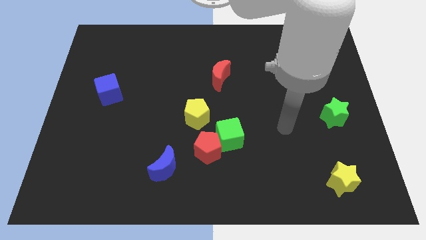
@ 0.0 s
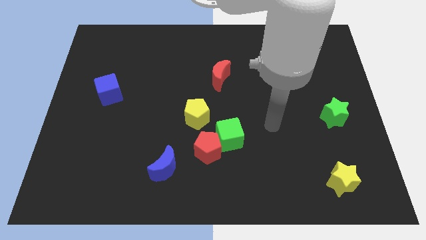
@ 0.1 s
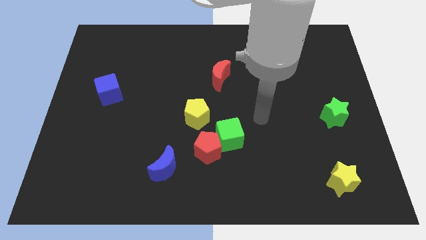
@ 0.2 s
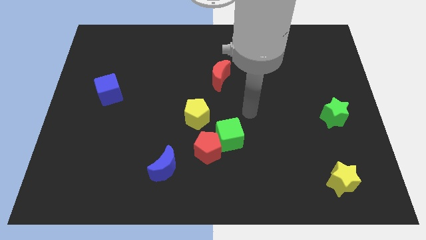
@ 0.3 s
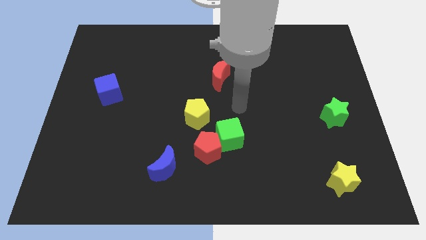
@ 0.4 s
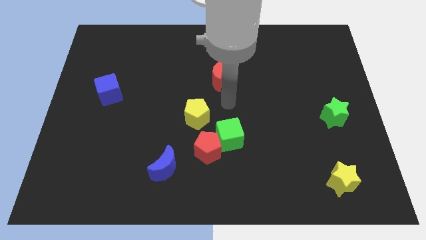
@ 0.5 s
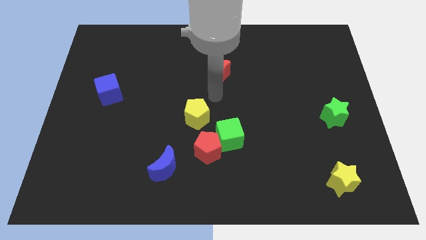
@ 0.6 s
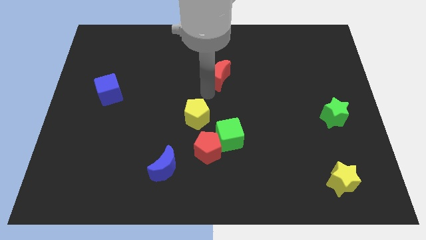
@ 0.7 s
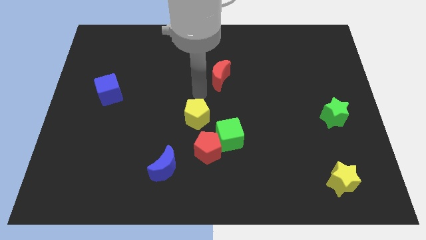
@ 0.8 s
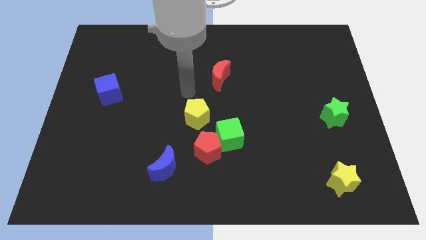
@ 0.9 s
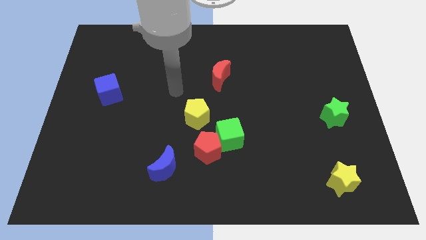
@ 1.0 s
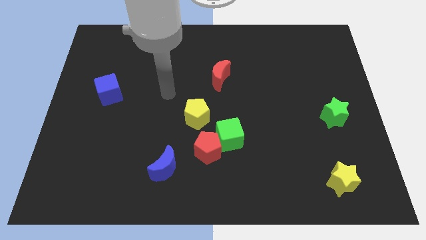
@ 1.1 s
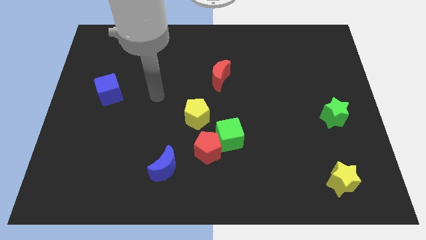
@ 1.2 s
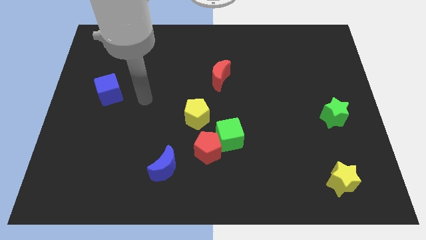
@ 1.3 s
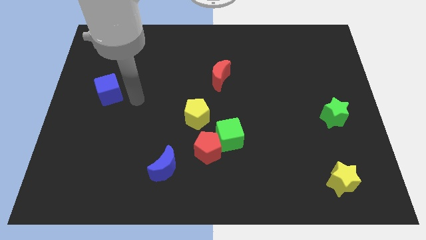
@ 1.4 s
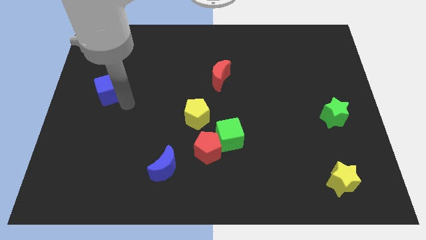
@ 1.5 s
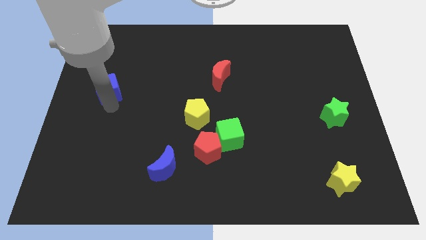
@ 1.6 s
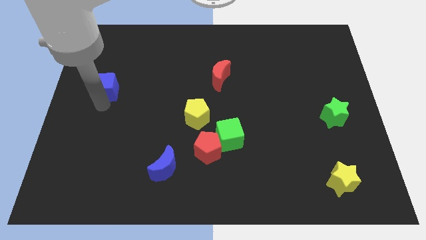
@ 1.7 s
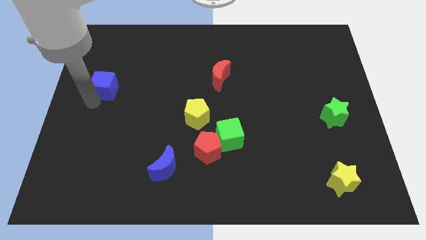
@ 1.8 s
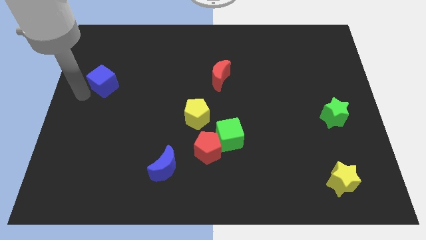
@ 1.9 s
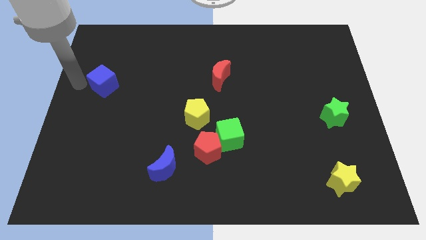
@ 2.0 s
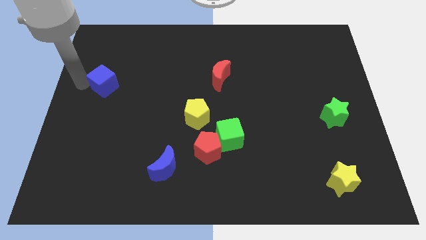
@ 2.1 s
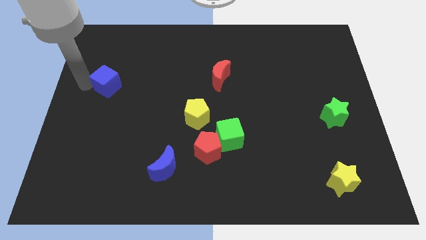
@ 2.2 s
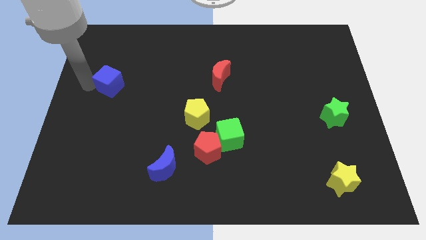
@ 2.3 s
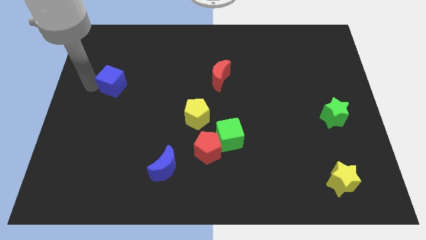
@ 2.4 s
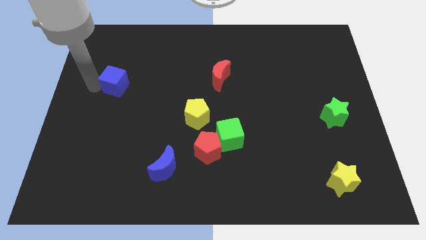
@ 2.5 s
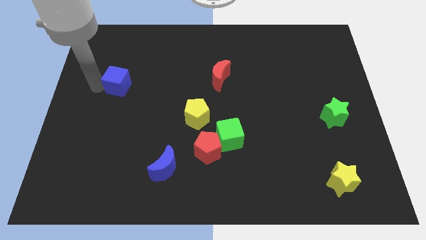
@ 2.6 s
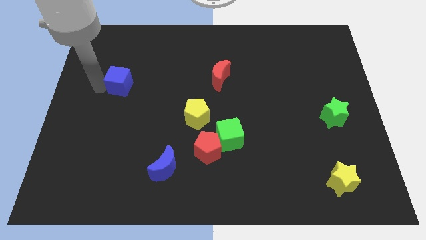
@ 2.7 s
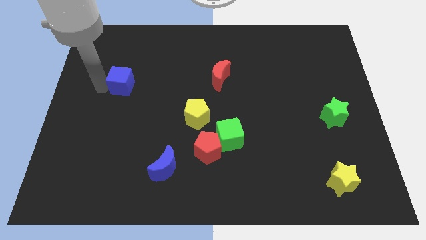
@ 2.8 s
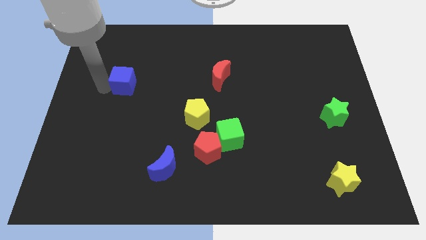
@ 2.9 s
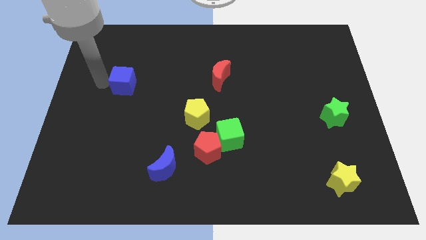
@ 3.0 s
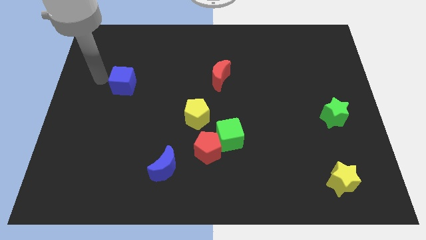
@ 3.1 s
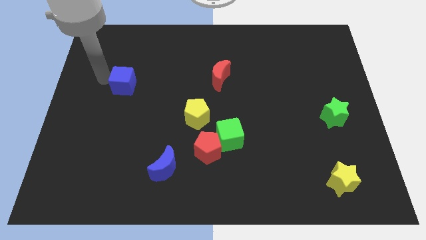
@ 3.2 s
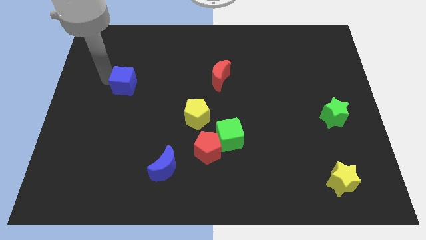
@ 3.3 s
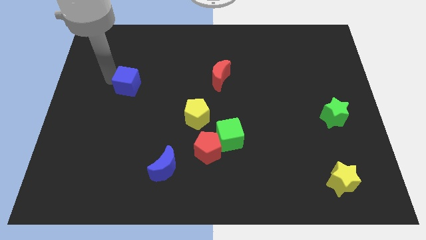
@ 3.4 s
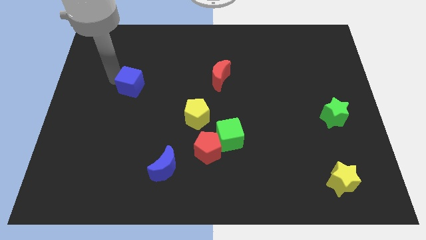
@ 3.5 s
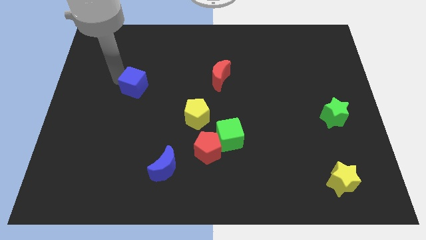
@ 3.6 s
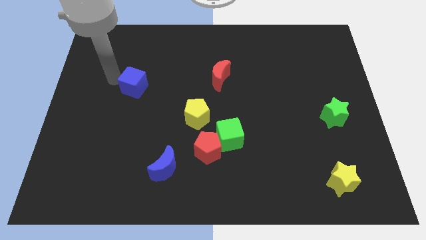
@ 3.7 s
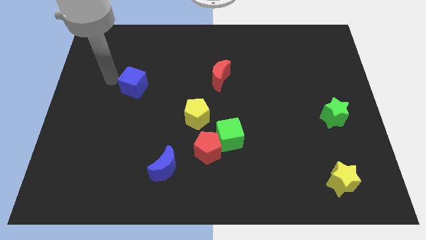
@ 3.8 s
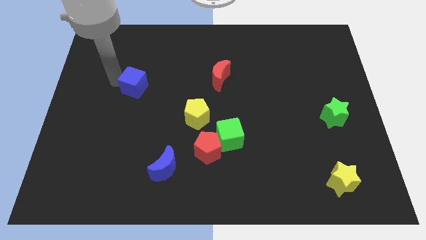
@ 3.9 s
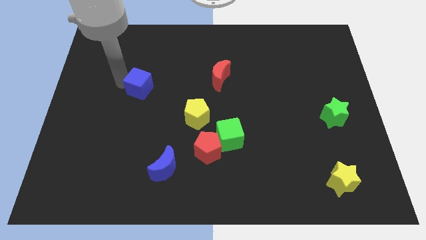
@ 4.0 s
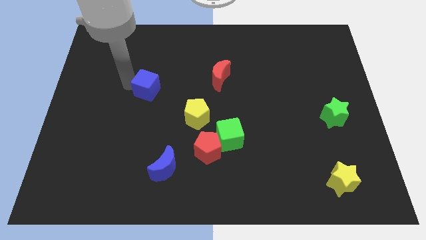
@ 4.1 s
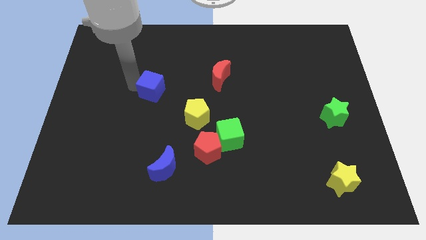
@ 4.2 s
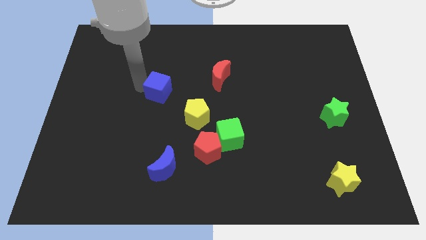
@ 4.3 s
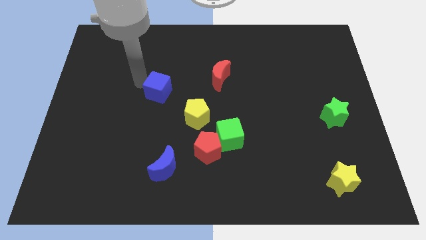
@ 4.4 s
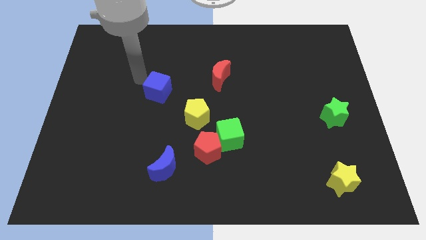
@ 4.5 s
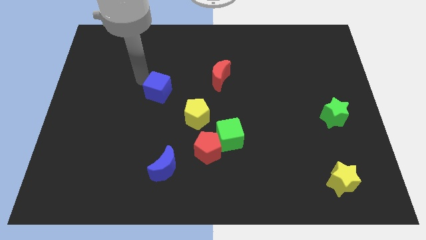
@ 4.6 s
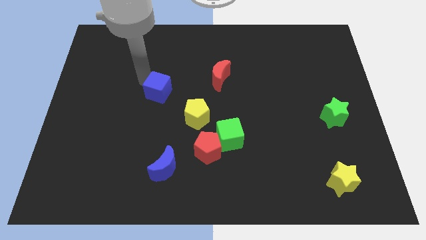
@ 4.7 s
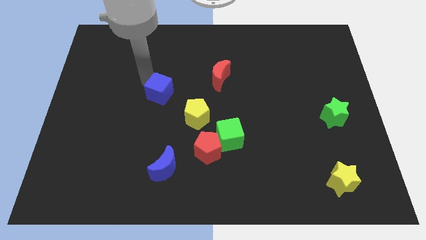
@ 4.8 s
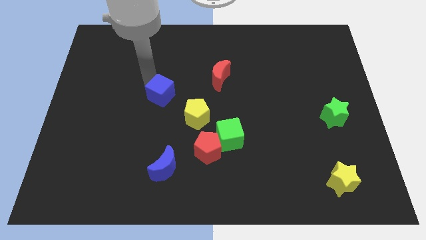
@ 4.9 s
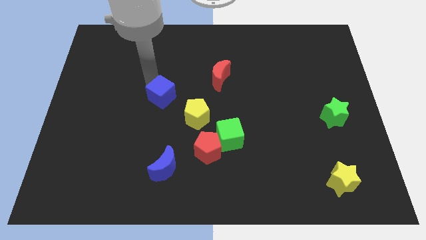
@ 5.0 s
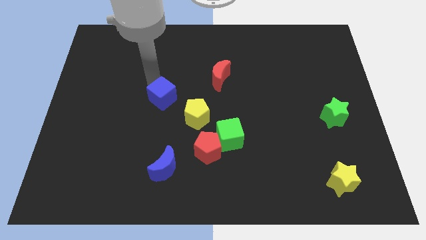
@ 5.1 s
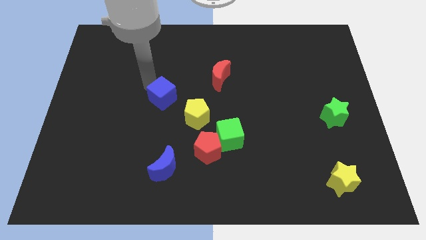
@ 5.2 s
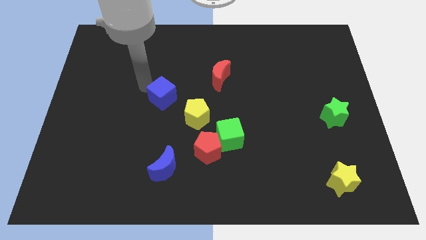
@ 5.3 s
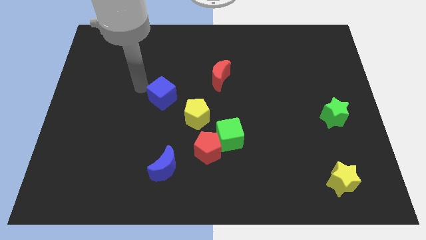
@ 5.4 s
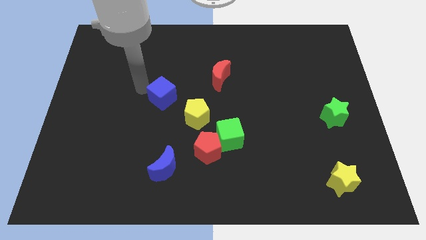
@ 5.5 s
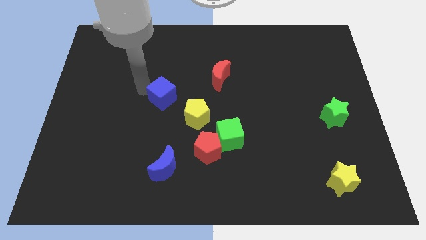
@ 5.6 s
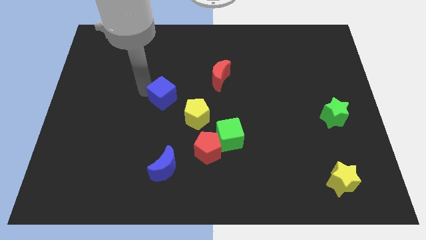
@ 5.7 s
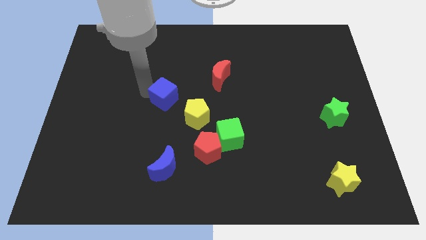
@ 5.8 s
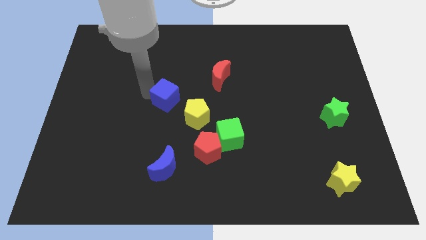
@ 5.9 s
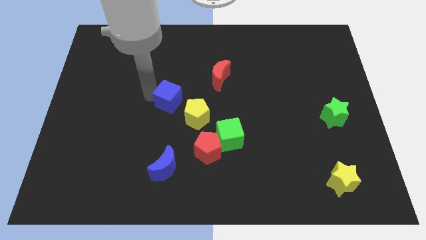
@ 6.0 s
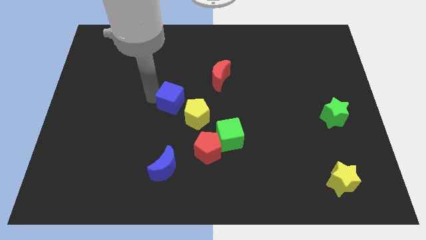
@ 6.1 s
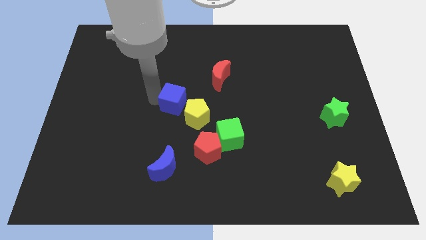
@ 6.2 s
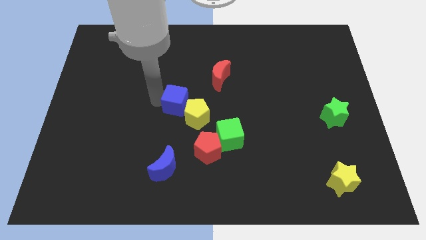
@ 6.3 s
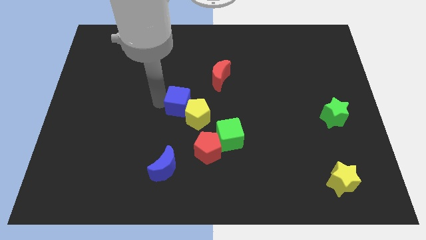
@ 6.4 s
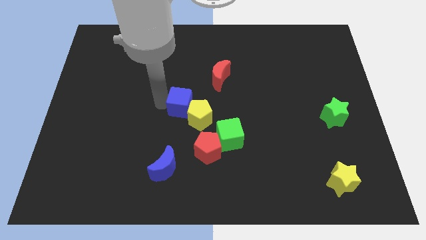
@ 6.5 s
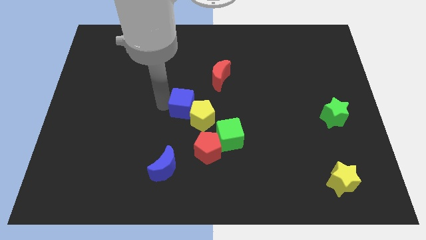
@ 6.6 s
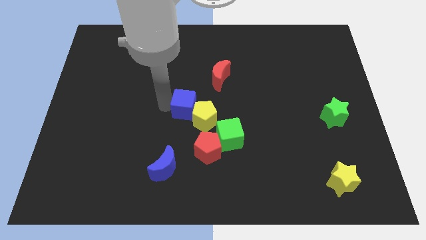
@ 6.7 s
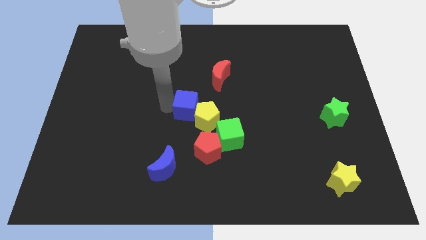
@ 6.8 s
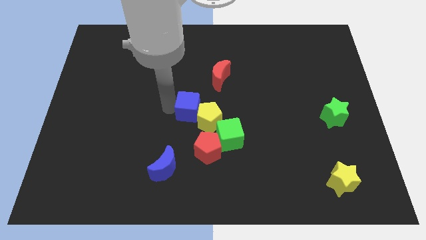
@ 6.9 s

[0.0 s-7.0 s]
put the blue cube above the red pentagon
